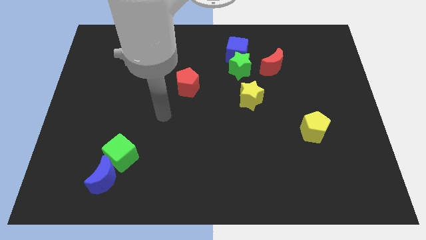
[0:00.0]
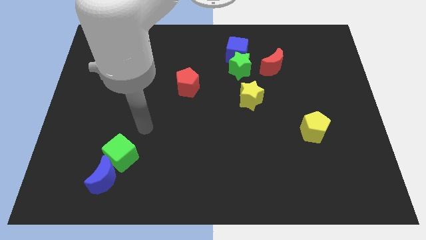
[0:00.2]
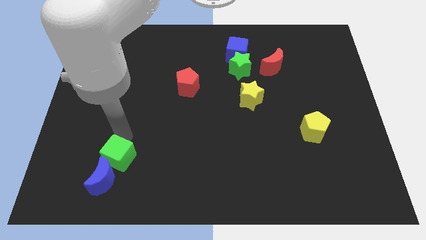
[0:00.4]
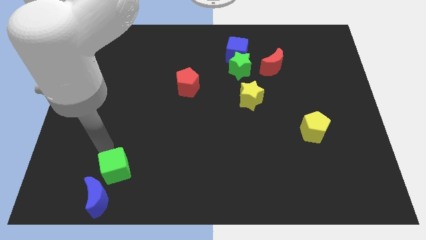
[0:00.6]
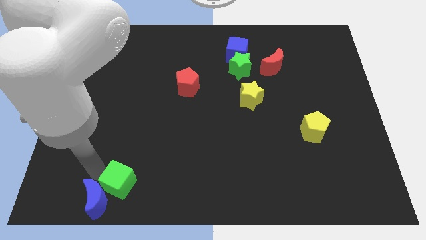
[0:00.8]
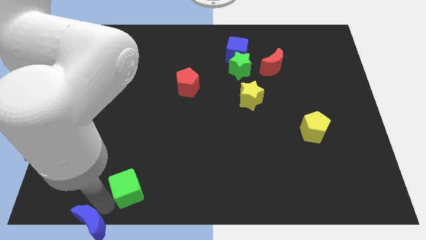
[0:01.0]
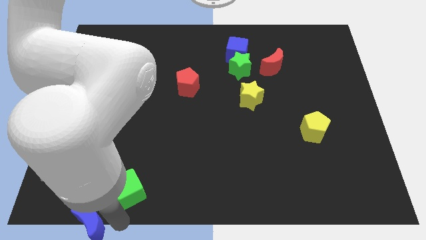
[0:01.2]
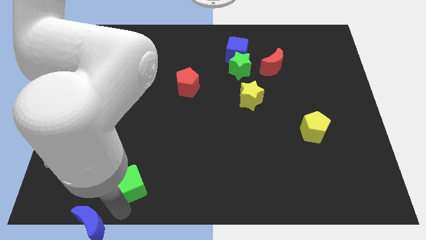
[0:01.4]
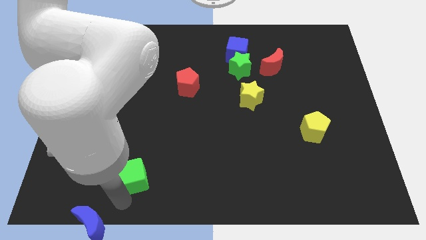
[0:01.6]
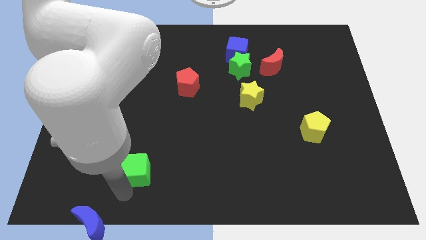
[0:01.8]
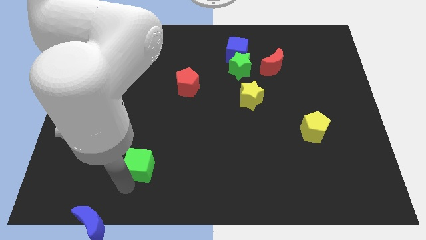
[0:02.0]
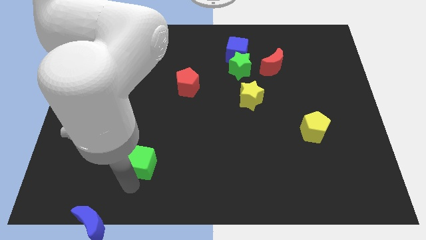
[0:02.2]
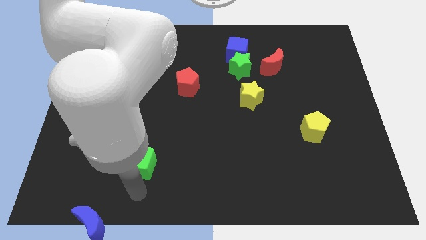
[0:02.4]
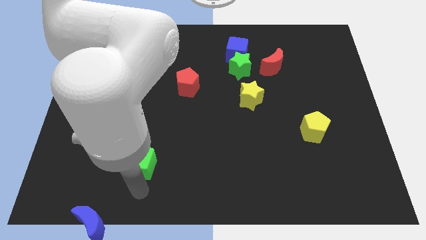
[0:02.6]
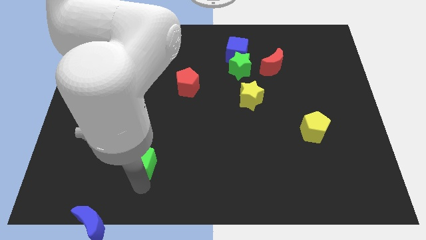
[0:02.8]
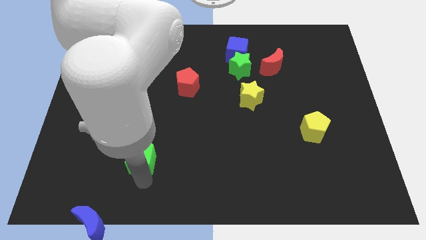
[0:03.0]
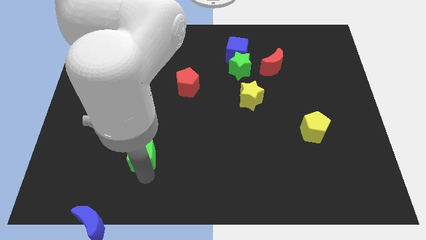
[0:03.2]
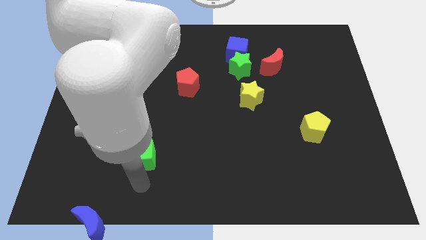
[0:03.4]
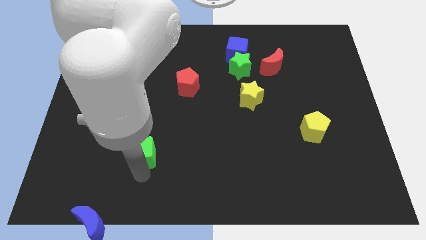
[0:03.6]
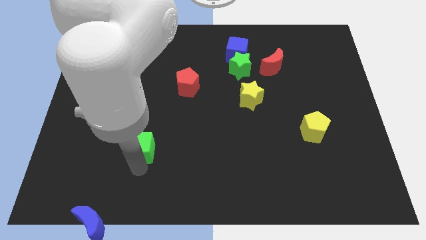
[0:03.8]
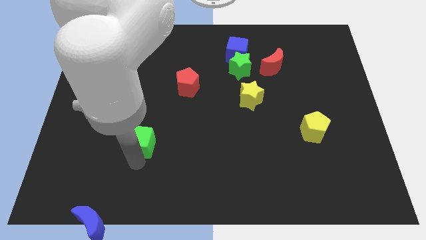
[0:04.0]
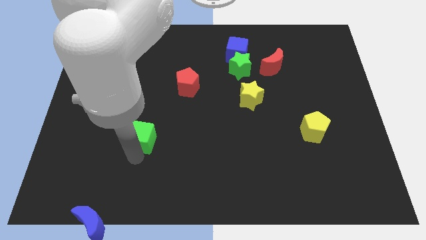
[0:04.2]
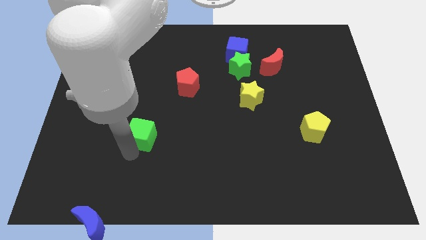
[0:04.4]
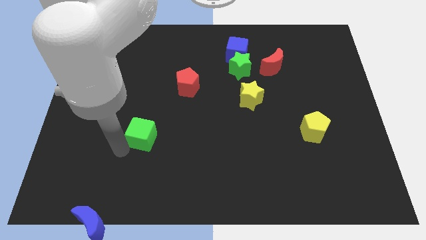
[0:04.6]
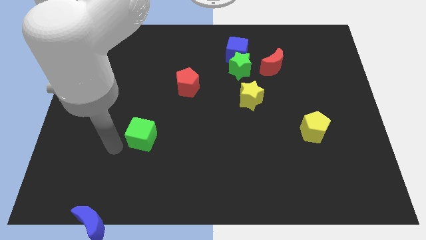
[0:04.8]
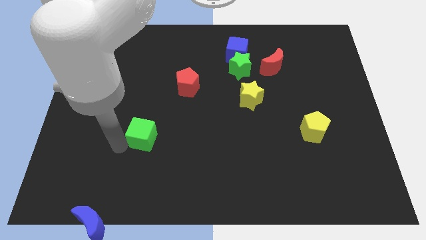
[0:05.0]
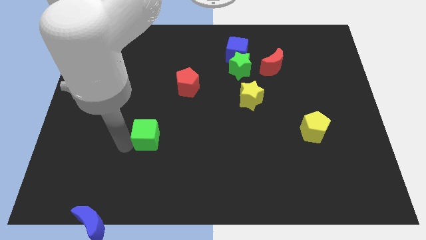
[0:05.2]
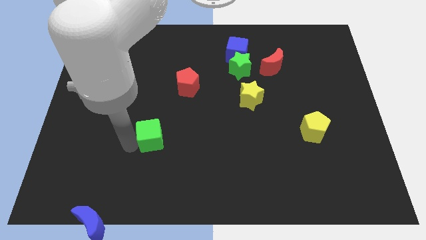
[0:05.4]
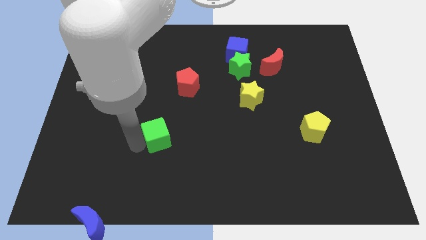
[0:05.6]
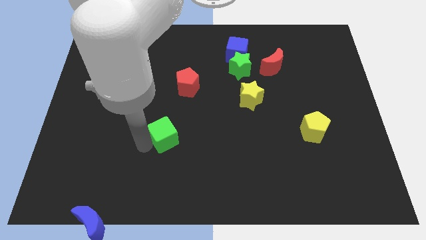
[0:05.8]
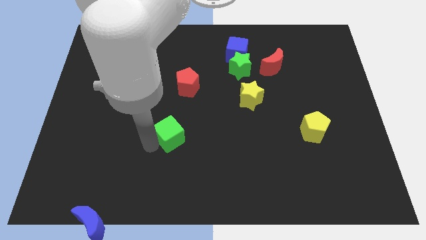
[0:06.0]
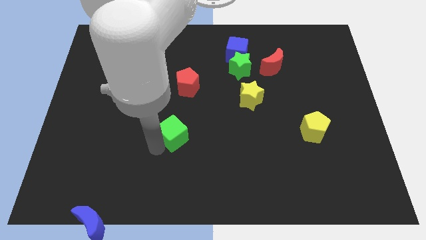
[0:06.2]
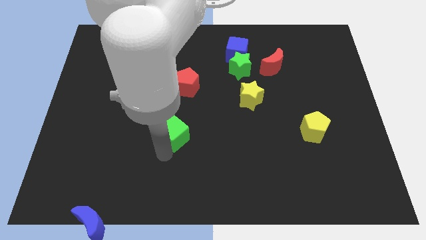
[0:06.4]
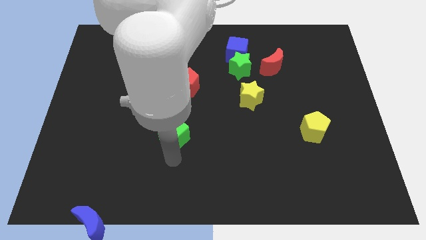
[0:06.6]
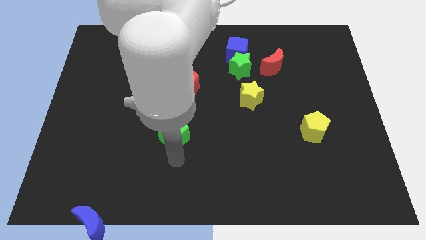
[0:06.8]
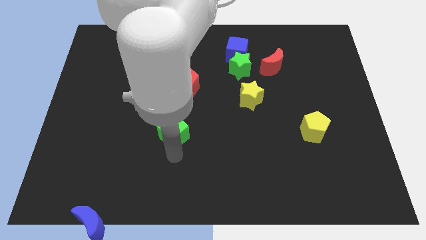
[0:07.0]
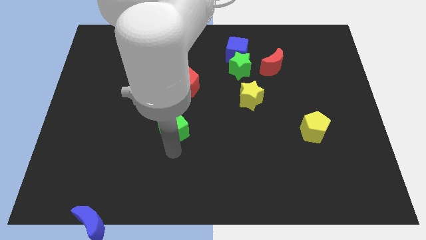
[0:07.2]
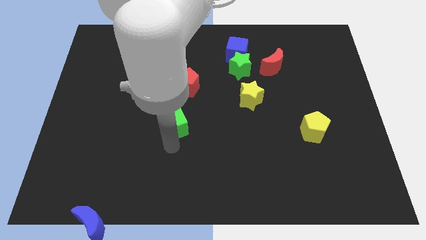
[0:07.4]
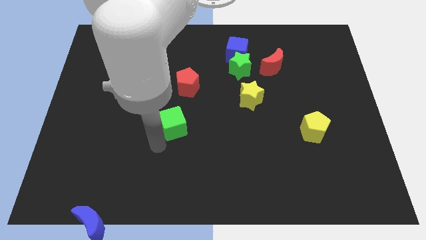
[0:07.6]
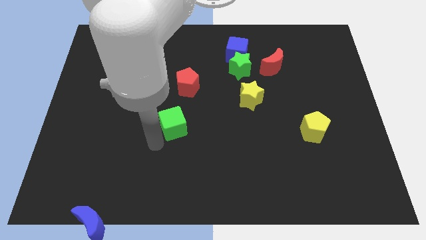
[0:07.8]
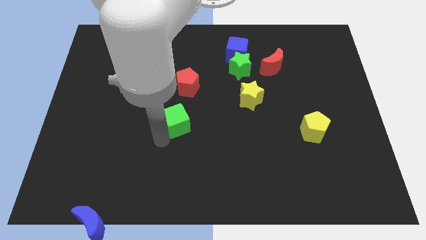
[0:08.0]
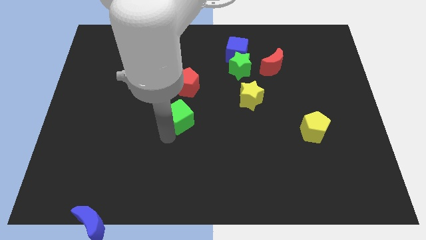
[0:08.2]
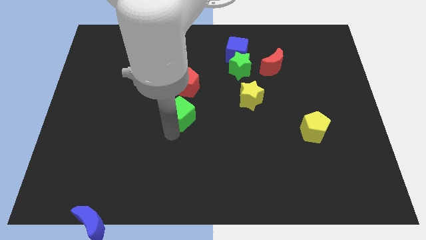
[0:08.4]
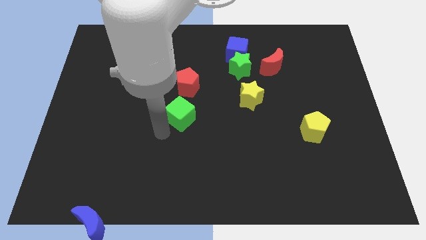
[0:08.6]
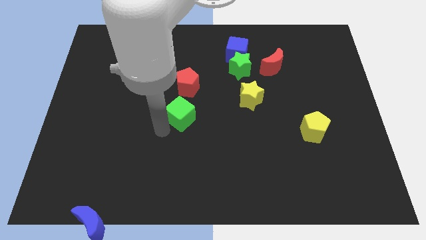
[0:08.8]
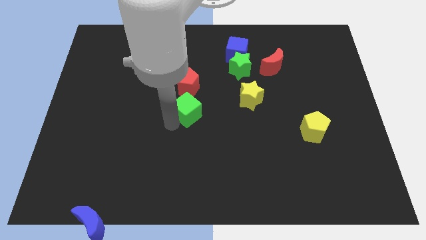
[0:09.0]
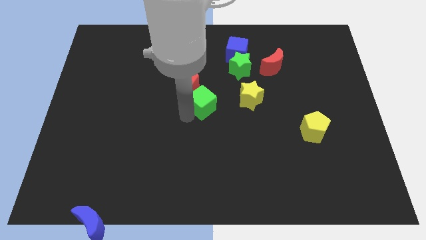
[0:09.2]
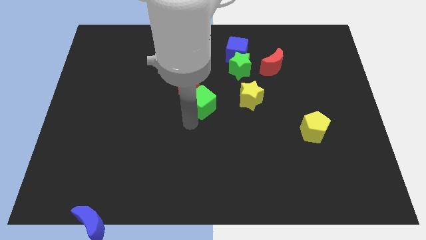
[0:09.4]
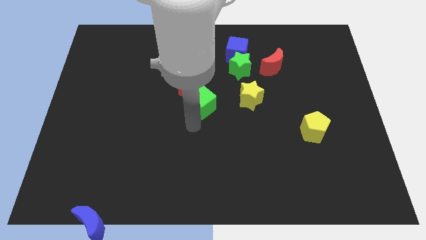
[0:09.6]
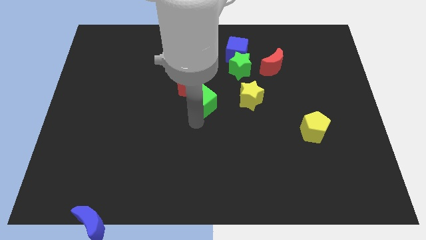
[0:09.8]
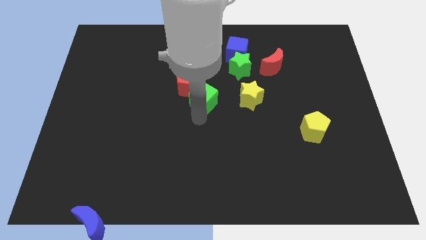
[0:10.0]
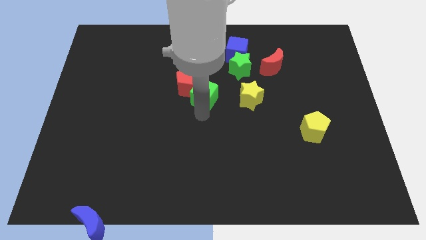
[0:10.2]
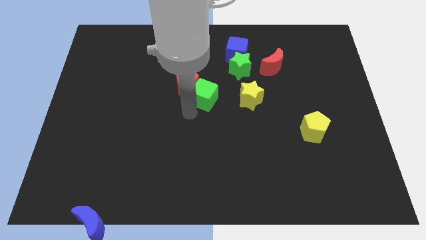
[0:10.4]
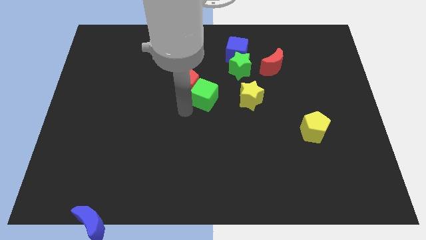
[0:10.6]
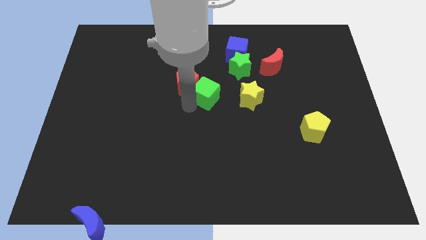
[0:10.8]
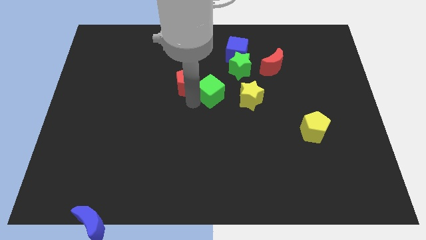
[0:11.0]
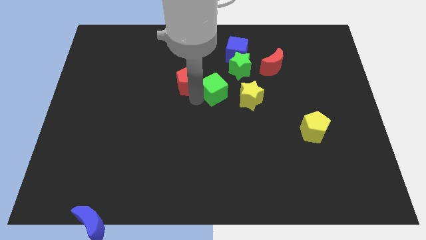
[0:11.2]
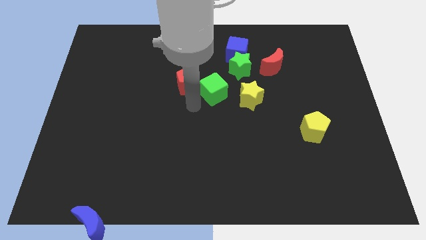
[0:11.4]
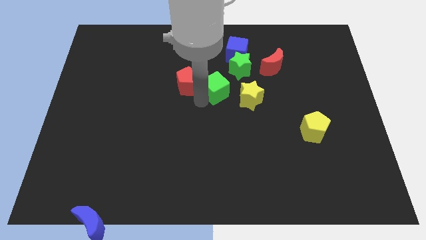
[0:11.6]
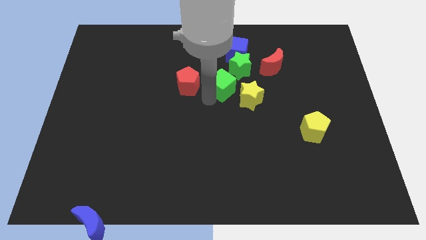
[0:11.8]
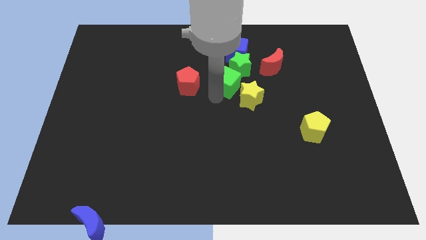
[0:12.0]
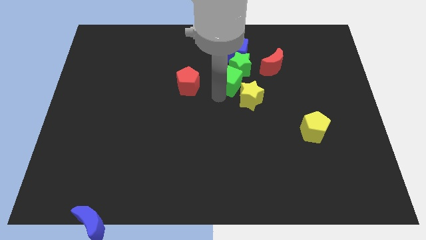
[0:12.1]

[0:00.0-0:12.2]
move the green cube close to the green star

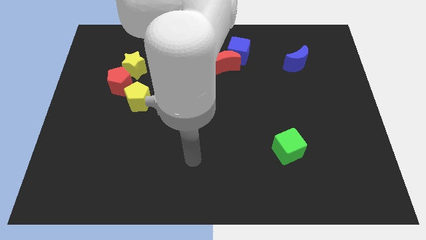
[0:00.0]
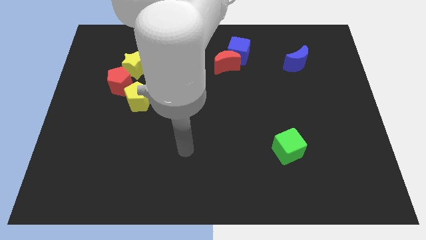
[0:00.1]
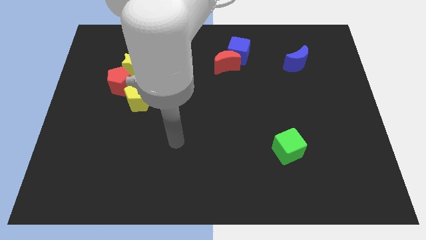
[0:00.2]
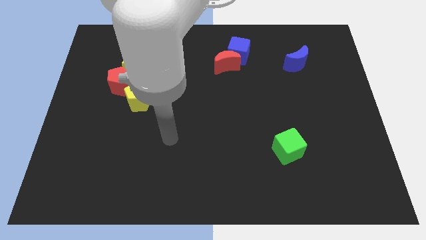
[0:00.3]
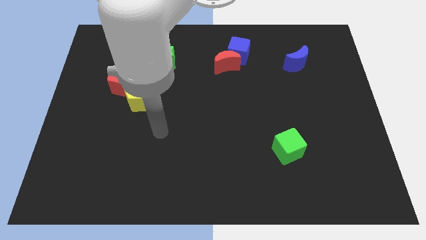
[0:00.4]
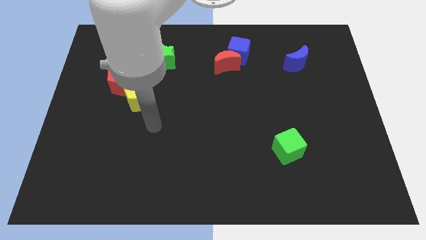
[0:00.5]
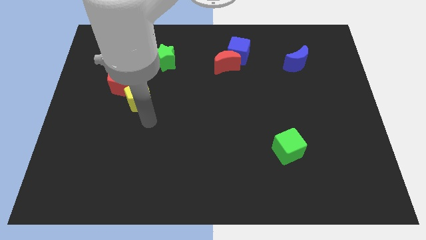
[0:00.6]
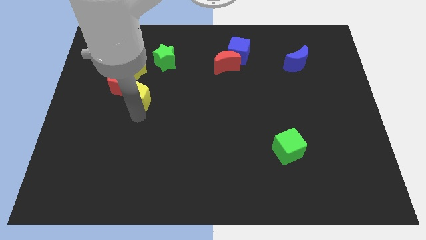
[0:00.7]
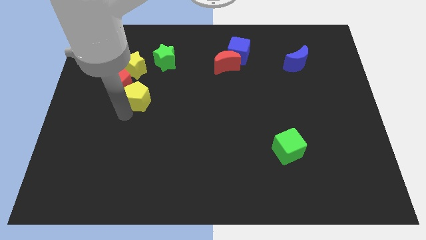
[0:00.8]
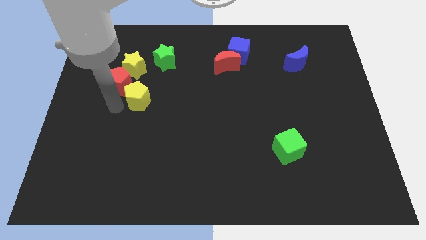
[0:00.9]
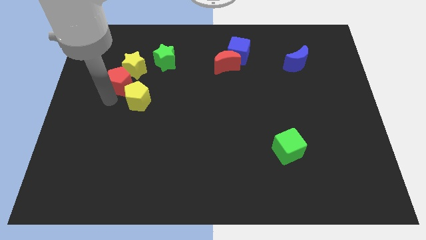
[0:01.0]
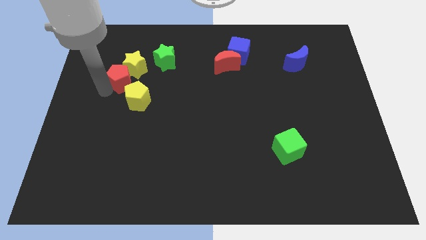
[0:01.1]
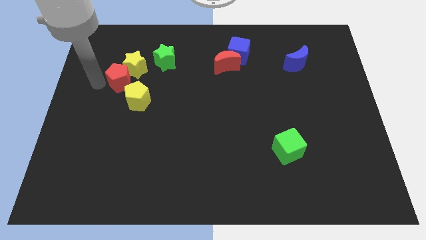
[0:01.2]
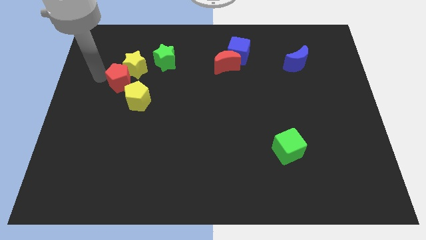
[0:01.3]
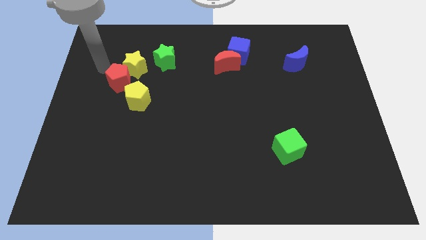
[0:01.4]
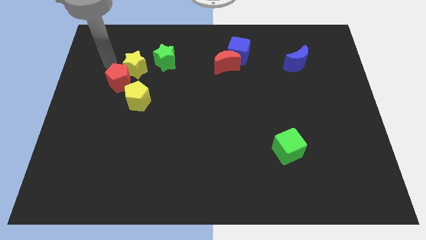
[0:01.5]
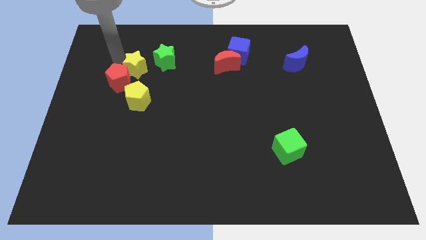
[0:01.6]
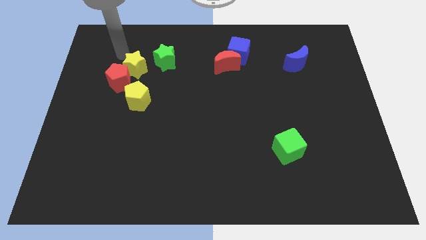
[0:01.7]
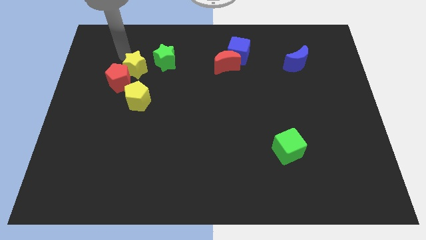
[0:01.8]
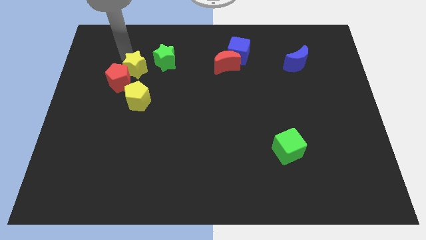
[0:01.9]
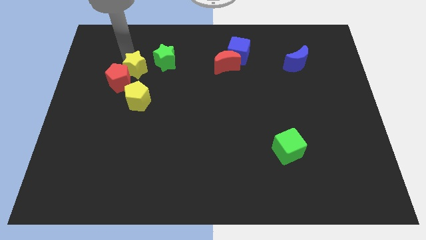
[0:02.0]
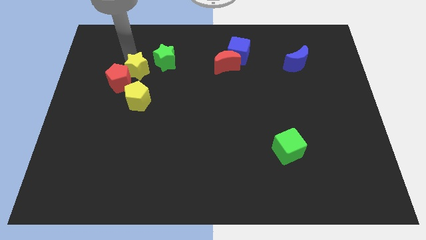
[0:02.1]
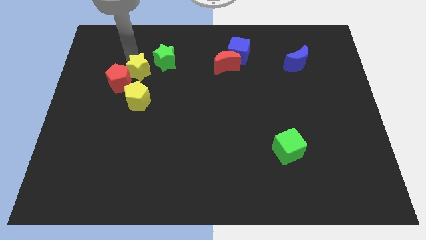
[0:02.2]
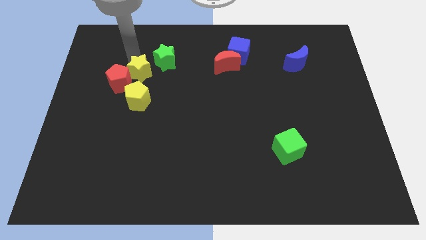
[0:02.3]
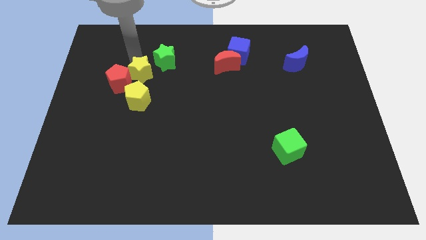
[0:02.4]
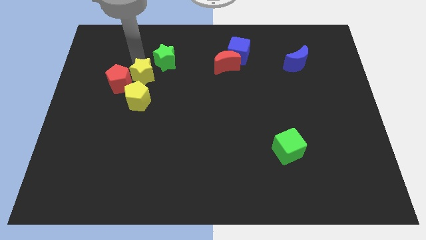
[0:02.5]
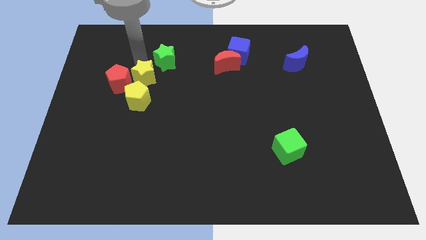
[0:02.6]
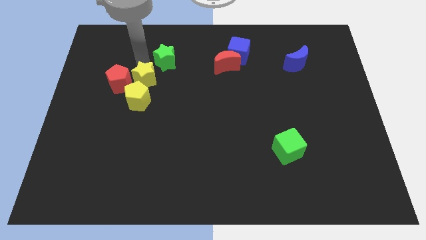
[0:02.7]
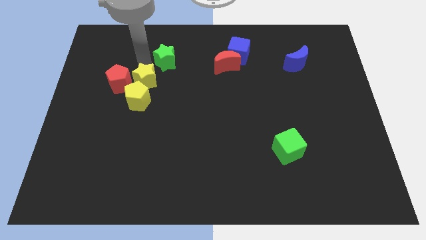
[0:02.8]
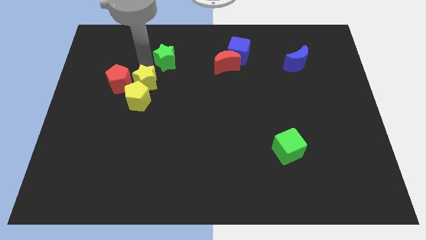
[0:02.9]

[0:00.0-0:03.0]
slide the yellow star to the yellow pentagon
